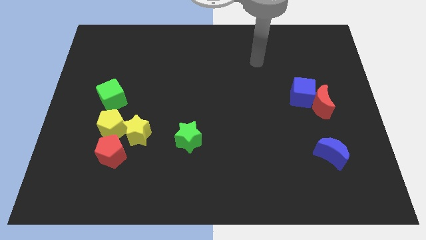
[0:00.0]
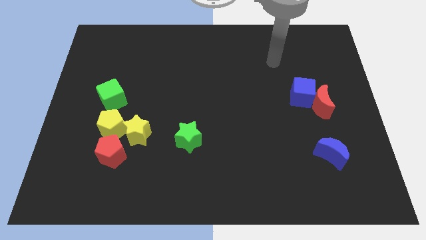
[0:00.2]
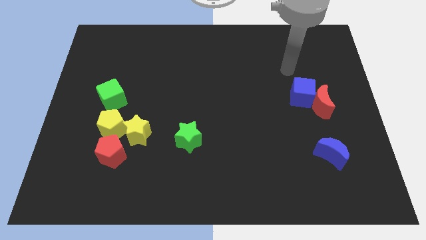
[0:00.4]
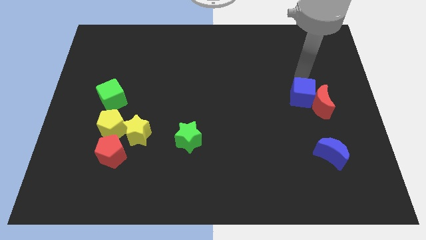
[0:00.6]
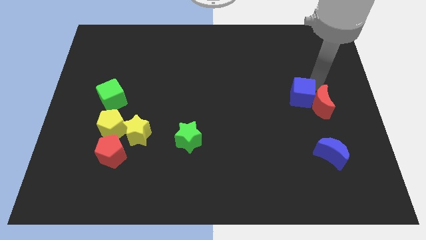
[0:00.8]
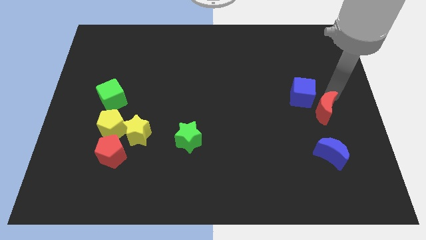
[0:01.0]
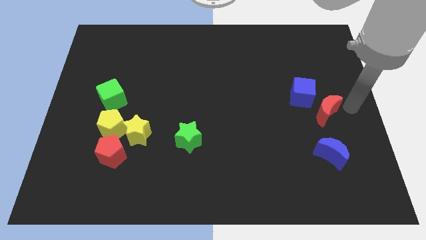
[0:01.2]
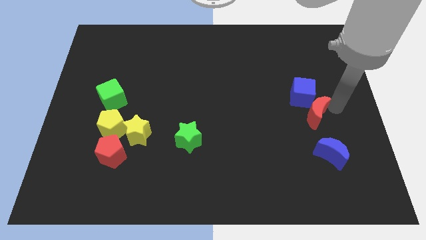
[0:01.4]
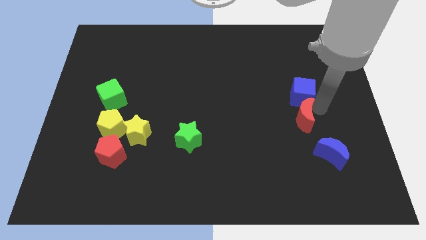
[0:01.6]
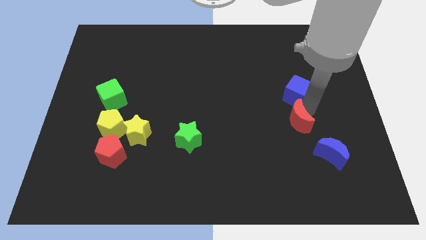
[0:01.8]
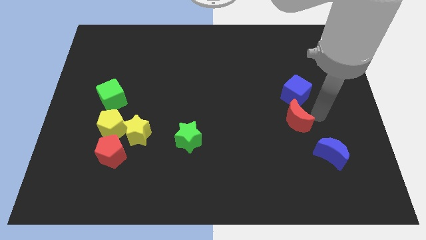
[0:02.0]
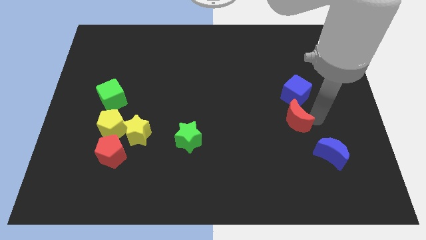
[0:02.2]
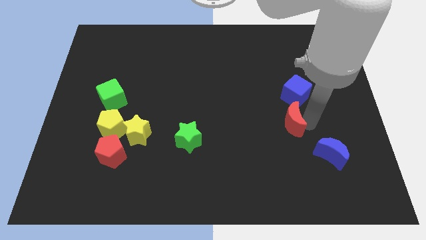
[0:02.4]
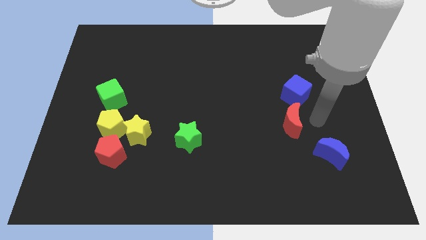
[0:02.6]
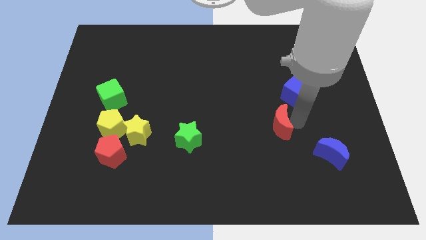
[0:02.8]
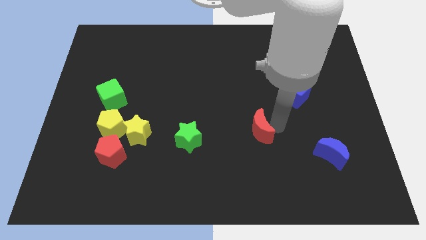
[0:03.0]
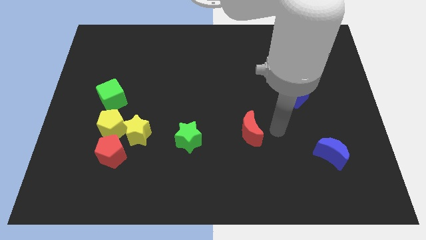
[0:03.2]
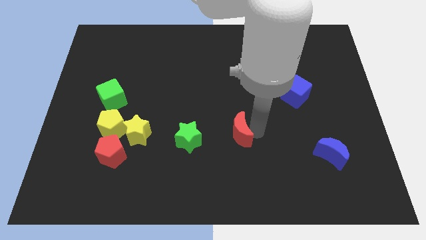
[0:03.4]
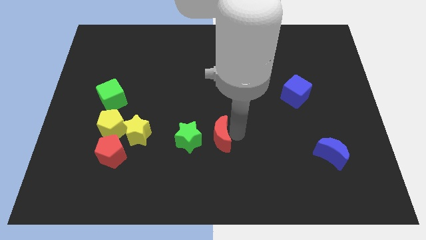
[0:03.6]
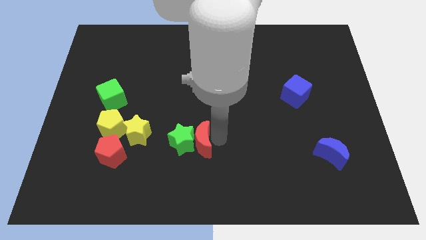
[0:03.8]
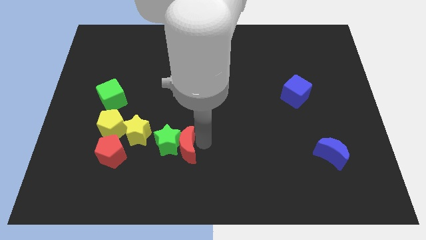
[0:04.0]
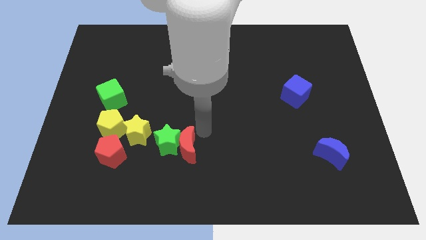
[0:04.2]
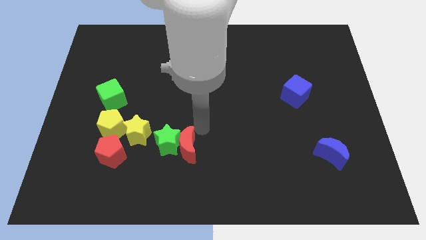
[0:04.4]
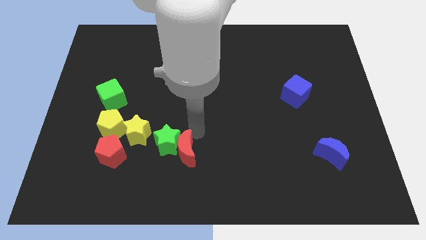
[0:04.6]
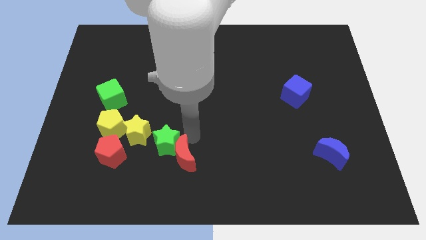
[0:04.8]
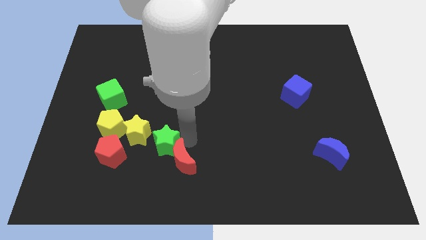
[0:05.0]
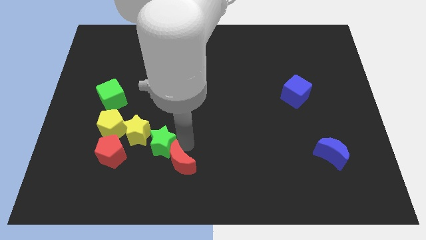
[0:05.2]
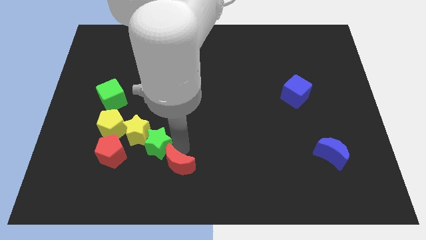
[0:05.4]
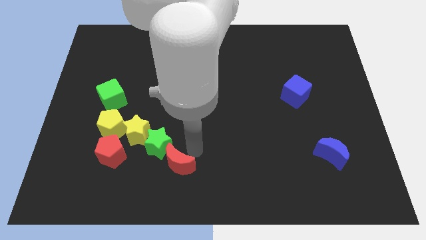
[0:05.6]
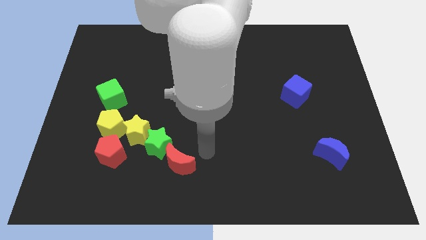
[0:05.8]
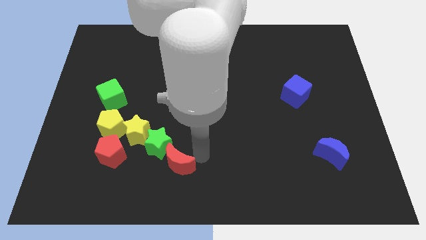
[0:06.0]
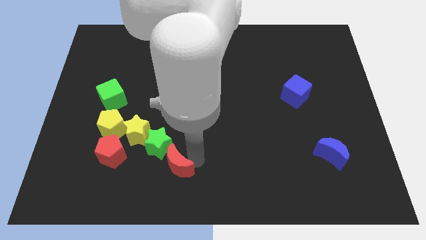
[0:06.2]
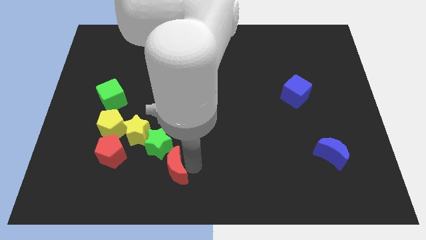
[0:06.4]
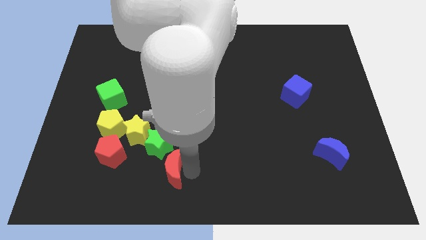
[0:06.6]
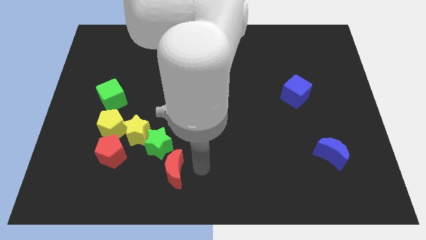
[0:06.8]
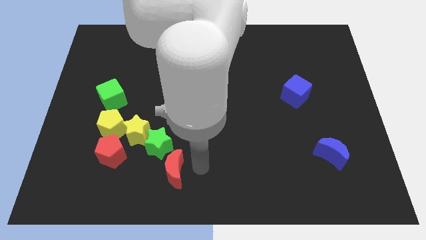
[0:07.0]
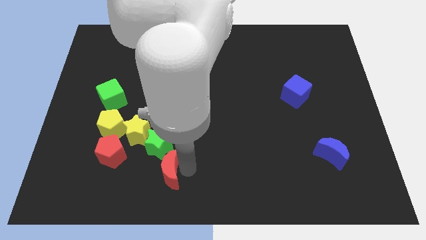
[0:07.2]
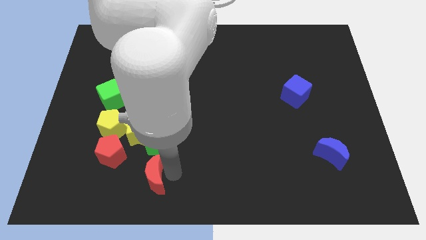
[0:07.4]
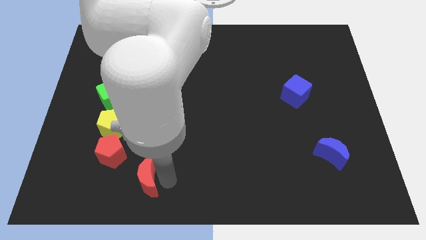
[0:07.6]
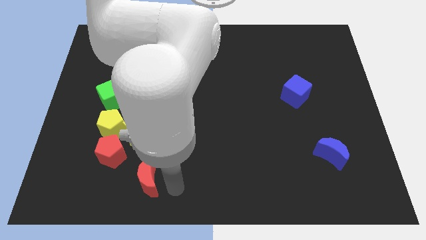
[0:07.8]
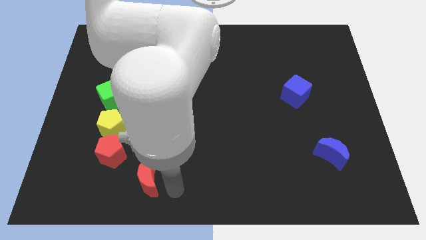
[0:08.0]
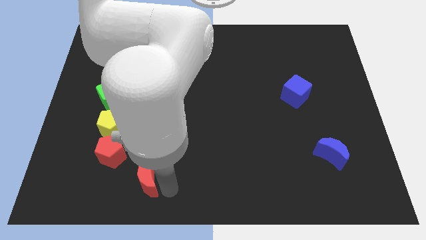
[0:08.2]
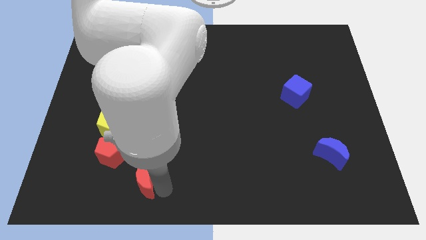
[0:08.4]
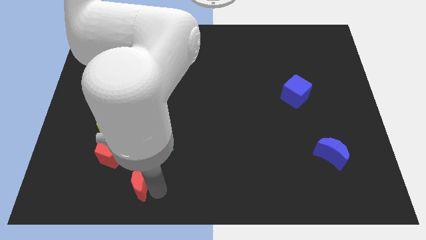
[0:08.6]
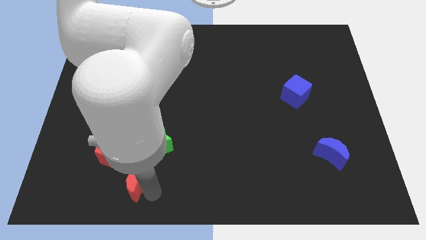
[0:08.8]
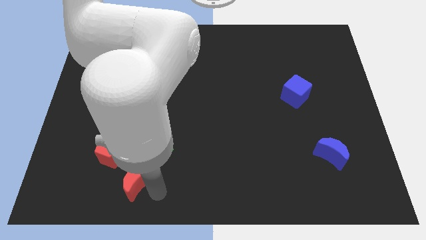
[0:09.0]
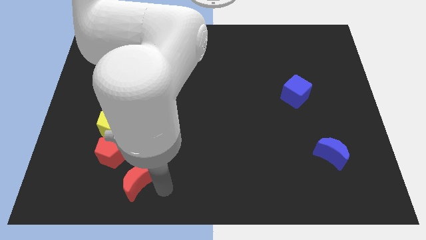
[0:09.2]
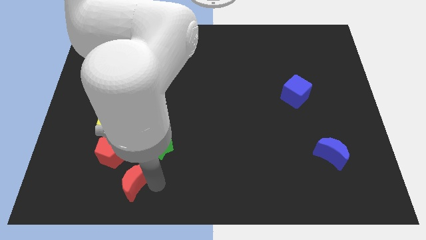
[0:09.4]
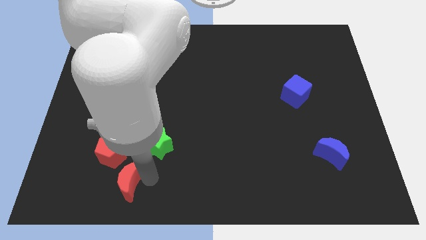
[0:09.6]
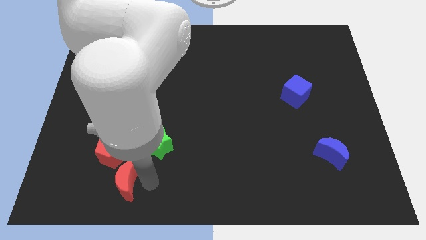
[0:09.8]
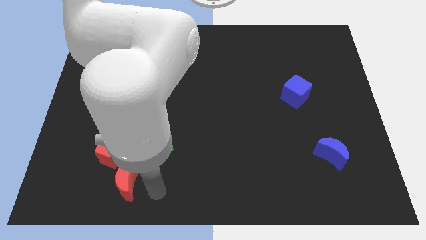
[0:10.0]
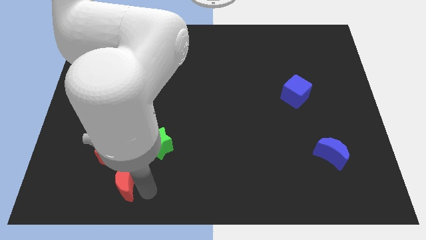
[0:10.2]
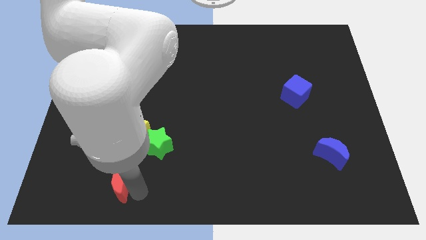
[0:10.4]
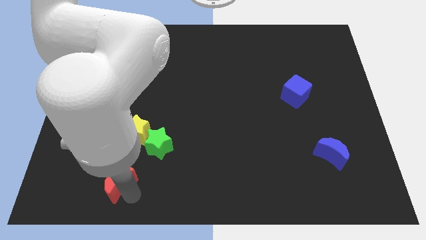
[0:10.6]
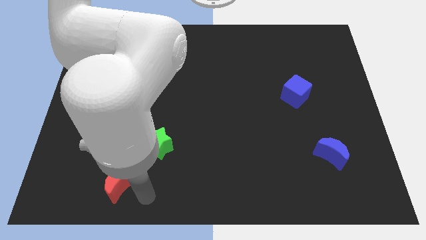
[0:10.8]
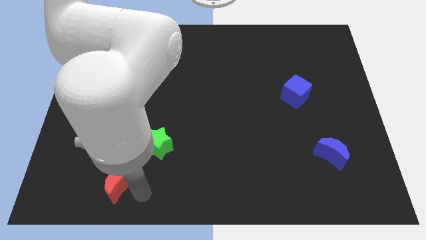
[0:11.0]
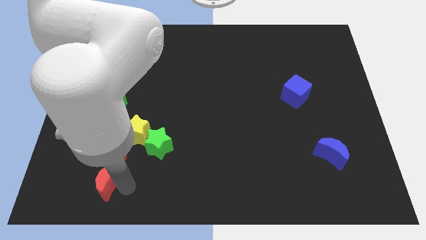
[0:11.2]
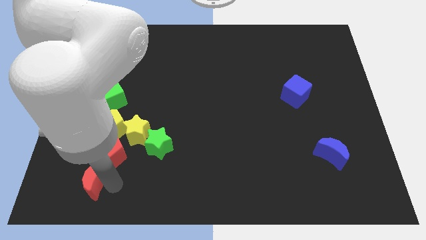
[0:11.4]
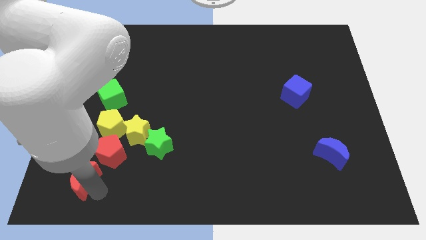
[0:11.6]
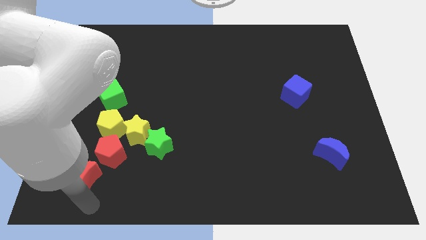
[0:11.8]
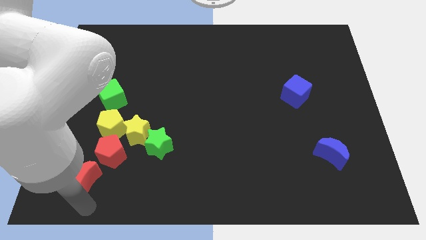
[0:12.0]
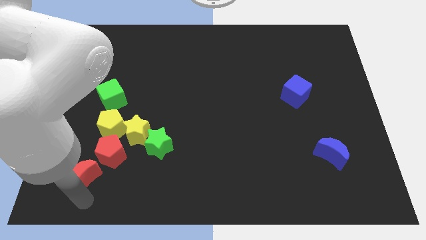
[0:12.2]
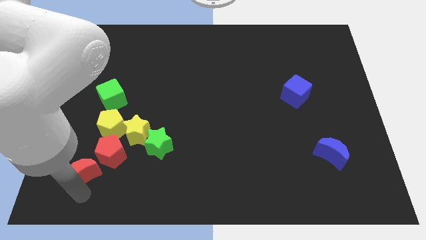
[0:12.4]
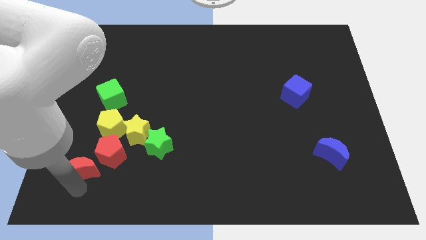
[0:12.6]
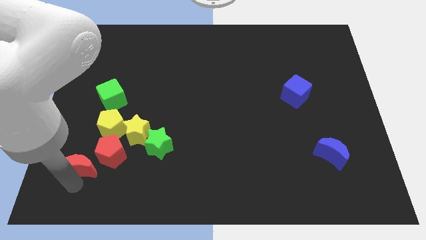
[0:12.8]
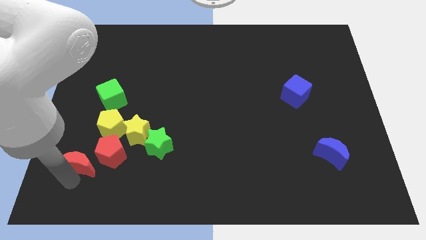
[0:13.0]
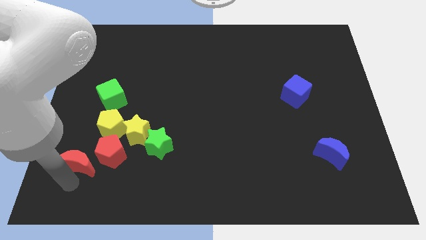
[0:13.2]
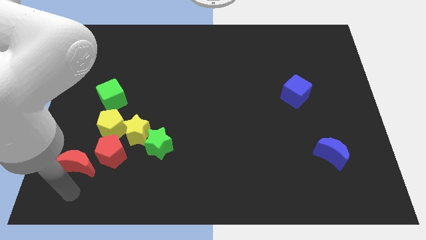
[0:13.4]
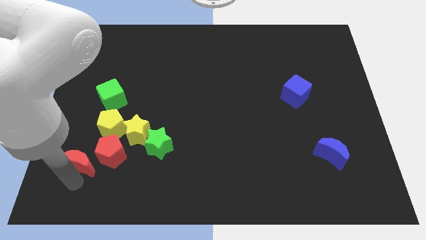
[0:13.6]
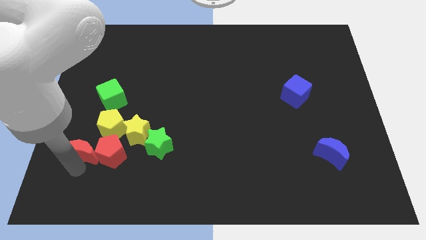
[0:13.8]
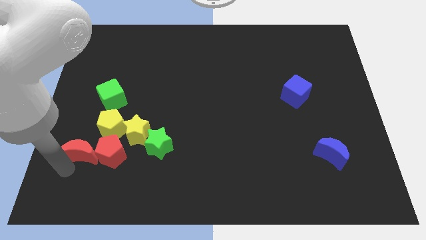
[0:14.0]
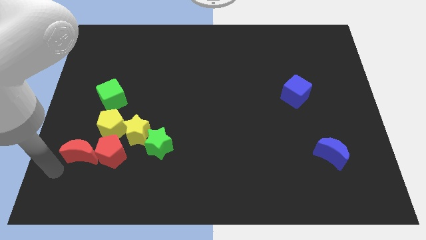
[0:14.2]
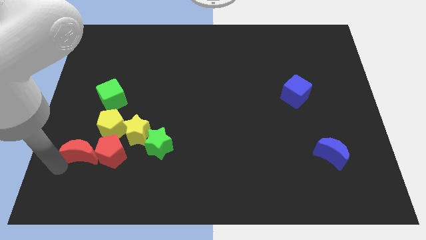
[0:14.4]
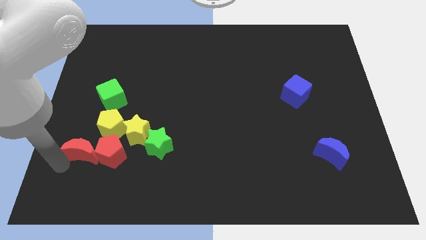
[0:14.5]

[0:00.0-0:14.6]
slide the red moon to the left of the green star

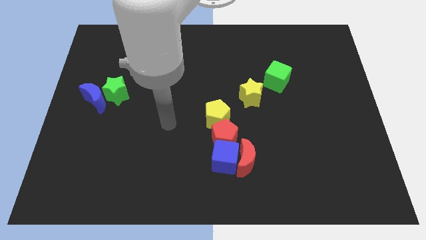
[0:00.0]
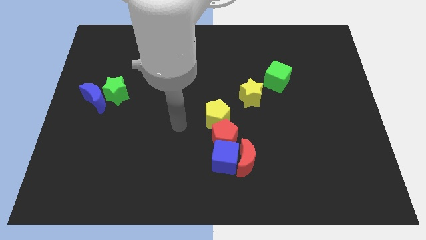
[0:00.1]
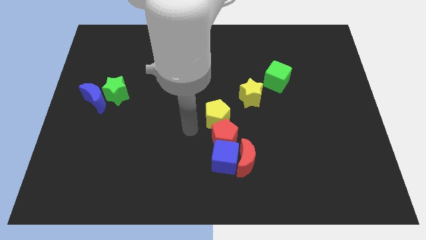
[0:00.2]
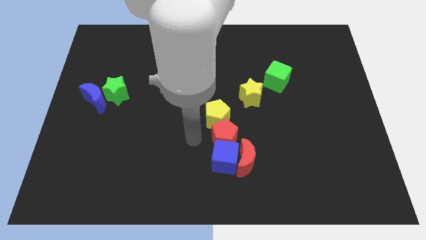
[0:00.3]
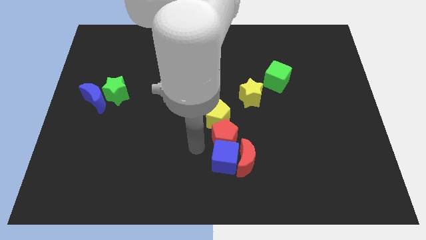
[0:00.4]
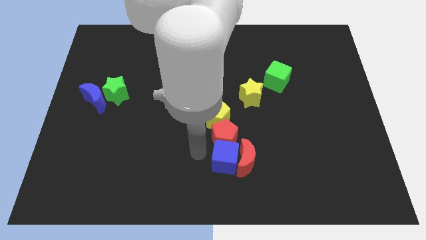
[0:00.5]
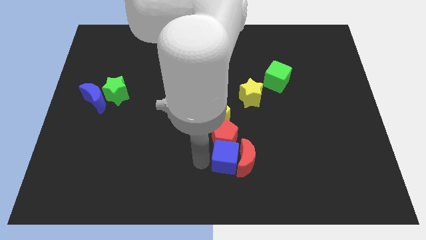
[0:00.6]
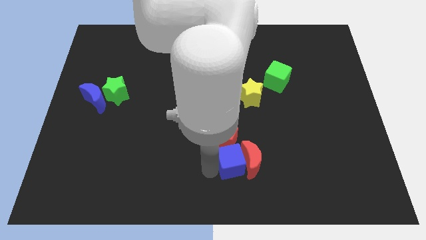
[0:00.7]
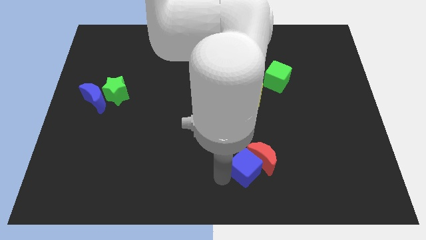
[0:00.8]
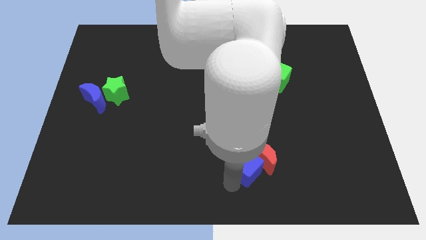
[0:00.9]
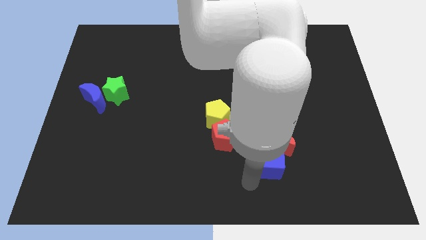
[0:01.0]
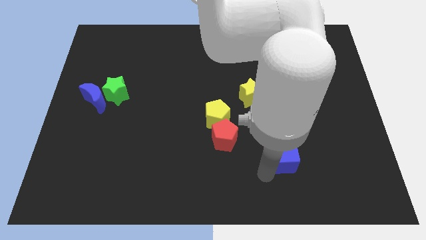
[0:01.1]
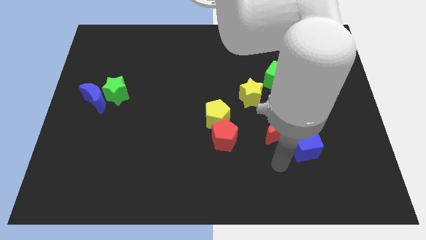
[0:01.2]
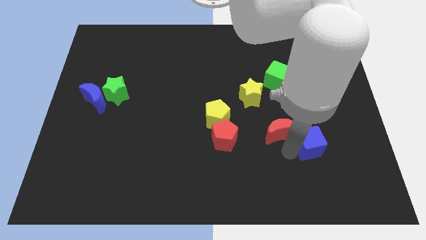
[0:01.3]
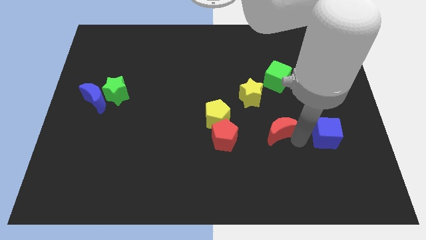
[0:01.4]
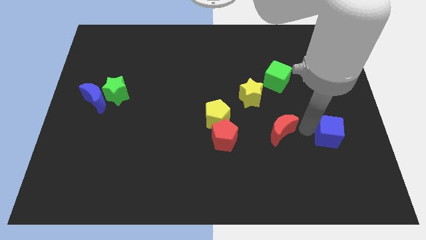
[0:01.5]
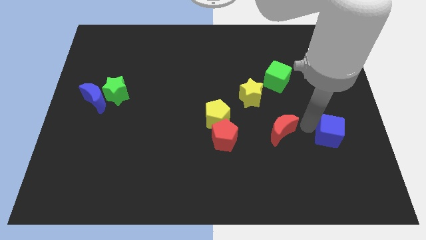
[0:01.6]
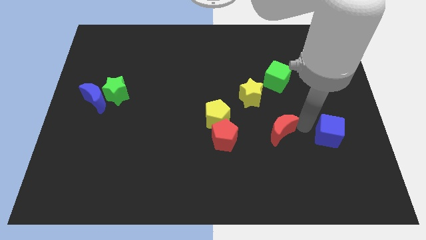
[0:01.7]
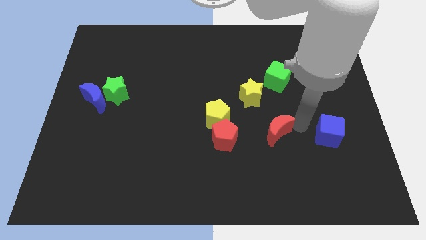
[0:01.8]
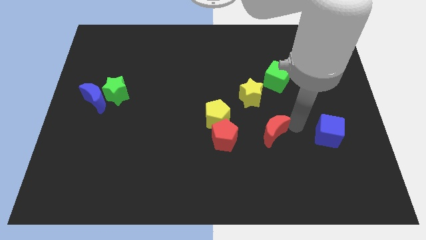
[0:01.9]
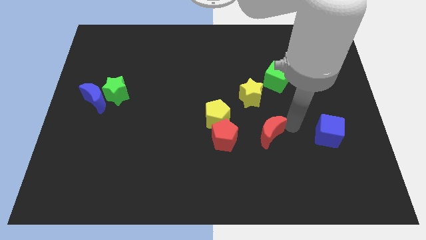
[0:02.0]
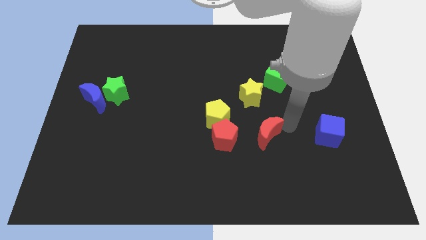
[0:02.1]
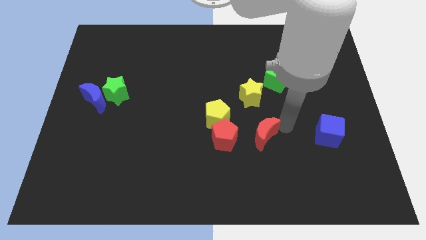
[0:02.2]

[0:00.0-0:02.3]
move the red moon to the bottom right side of the yellow pentagon
